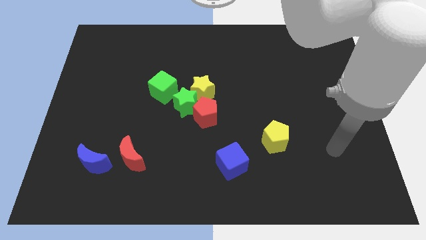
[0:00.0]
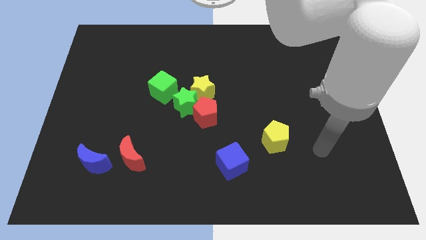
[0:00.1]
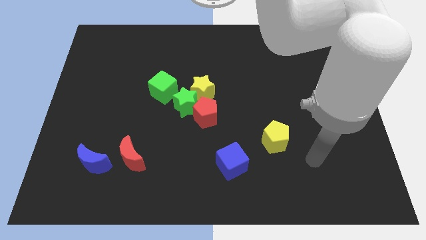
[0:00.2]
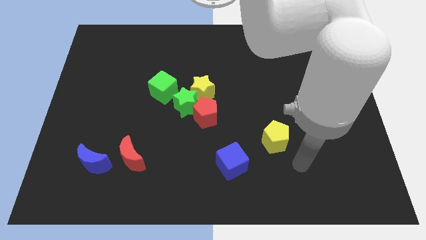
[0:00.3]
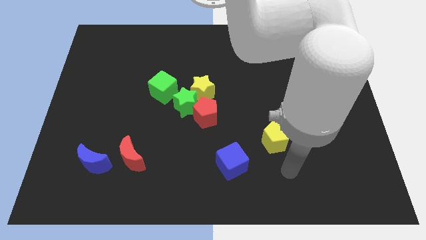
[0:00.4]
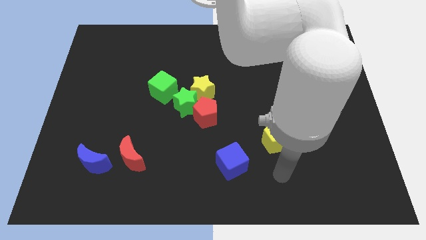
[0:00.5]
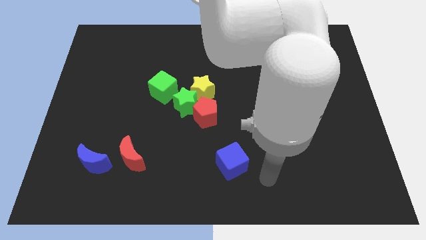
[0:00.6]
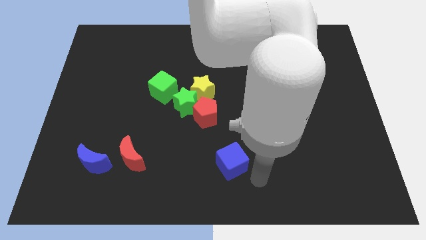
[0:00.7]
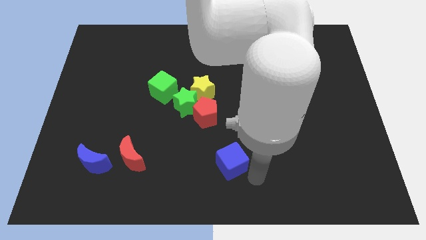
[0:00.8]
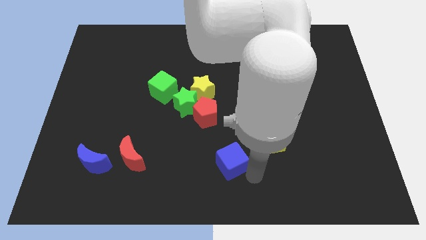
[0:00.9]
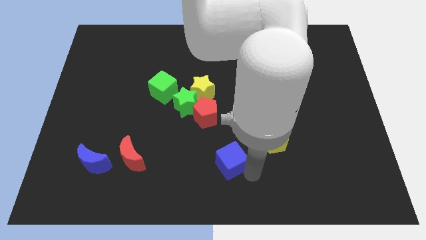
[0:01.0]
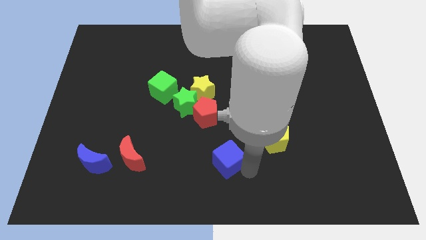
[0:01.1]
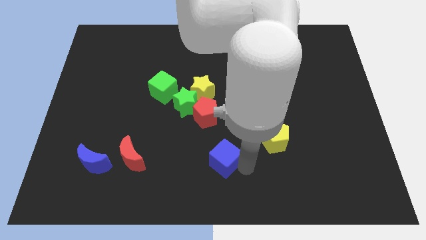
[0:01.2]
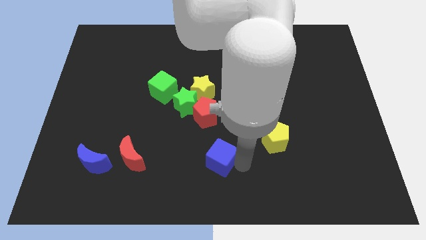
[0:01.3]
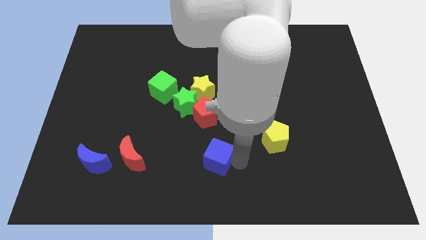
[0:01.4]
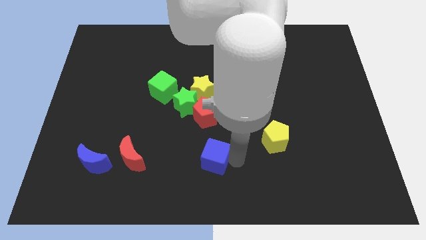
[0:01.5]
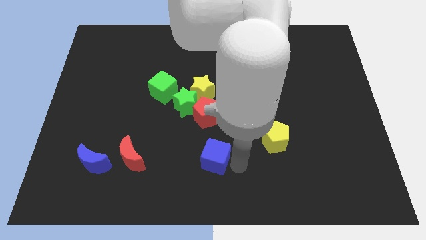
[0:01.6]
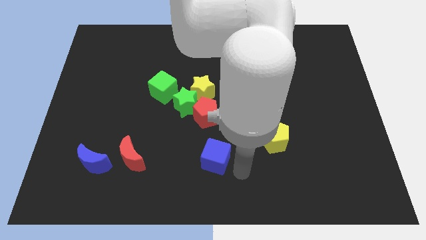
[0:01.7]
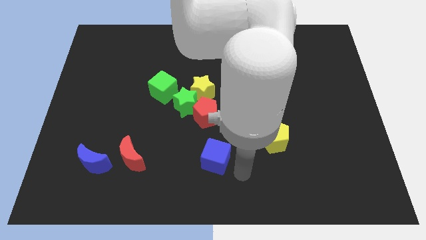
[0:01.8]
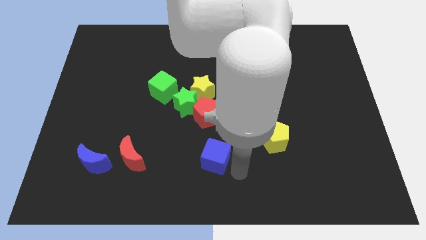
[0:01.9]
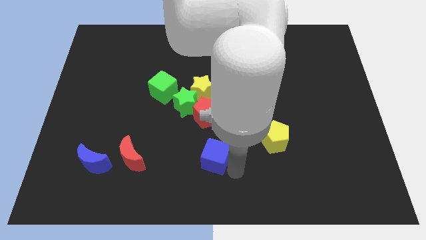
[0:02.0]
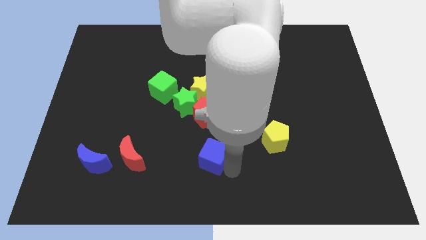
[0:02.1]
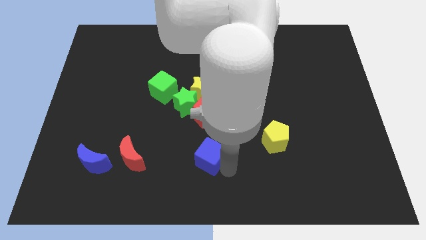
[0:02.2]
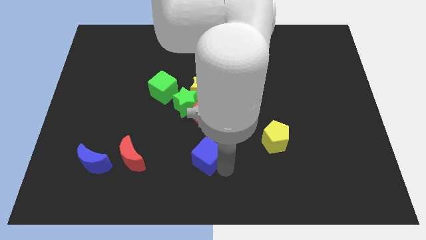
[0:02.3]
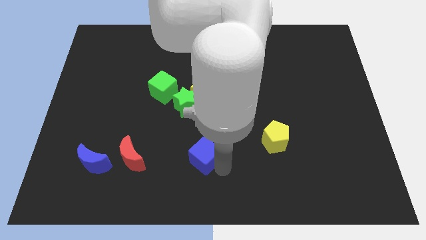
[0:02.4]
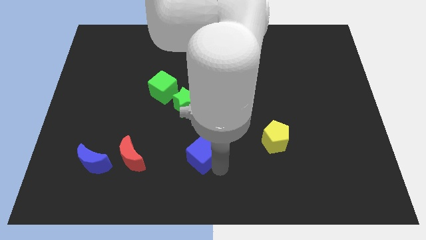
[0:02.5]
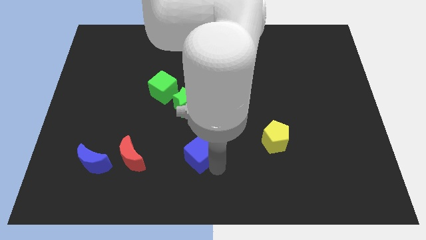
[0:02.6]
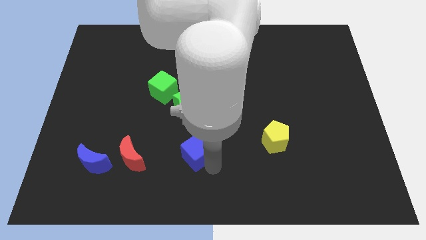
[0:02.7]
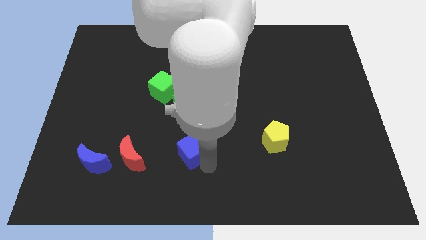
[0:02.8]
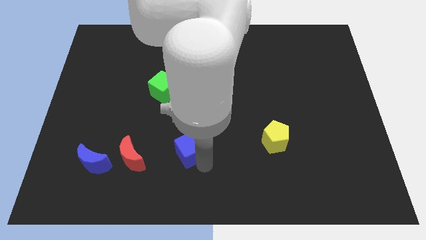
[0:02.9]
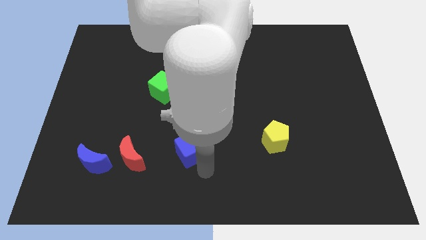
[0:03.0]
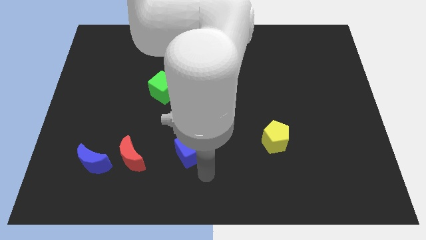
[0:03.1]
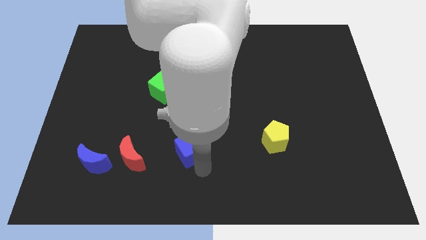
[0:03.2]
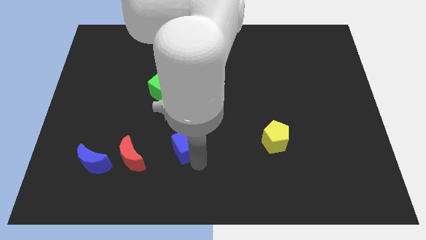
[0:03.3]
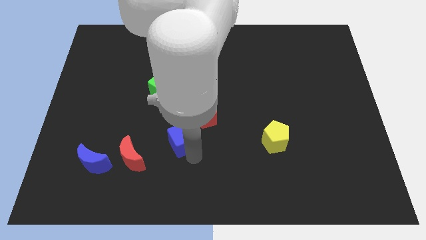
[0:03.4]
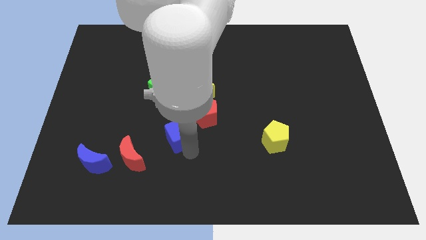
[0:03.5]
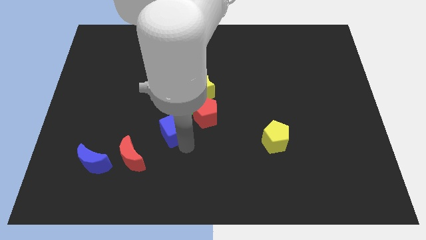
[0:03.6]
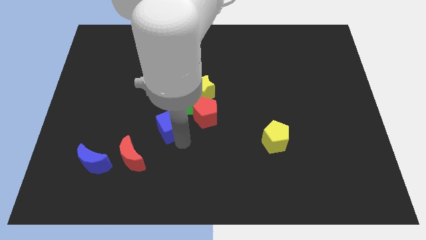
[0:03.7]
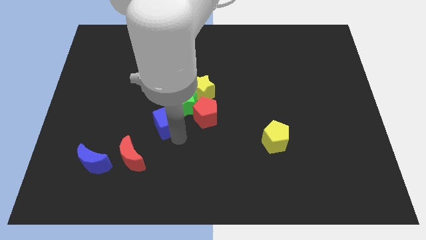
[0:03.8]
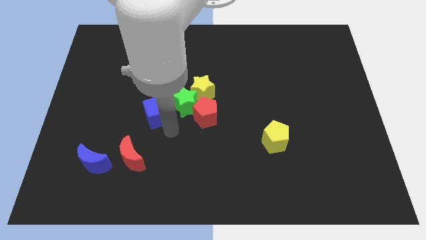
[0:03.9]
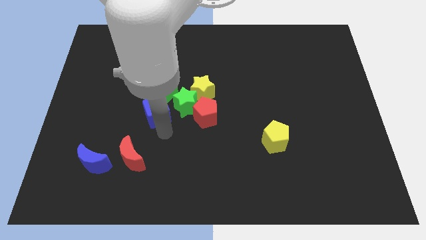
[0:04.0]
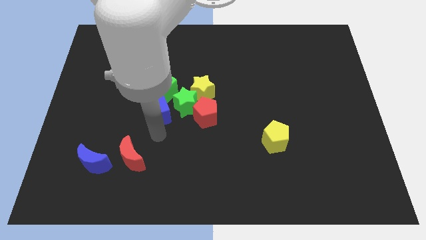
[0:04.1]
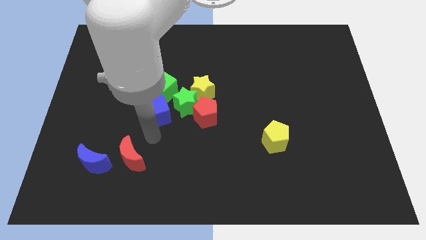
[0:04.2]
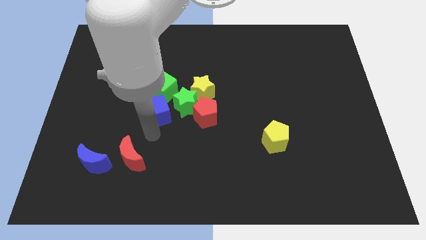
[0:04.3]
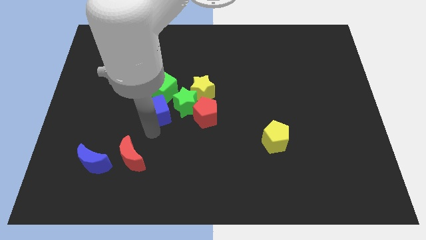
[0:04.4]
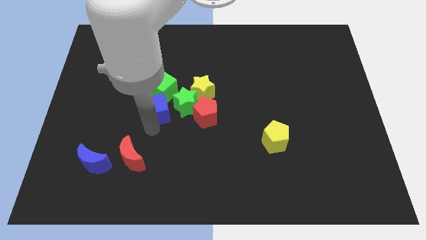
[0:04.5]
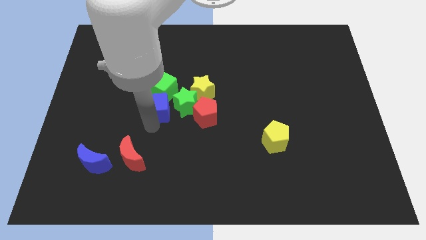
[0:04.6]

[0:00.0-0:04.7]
put the blue cube close to the green cube

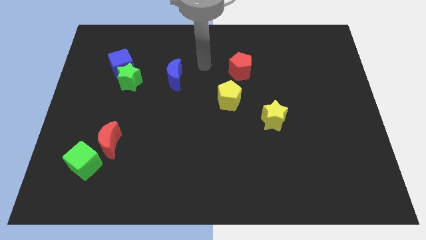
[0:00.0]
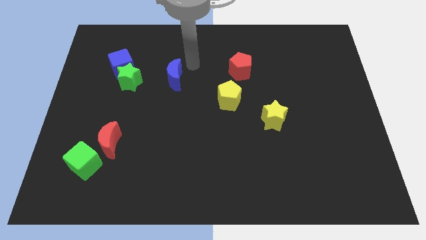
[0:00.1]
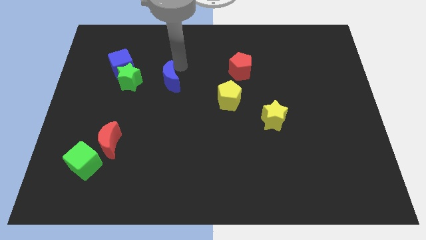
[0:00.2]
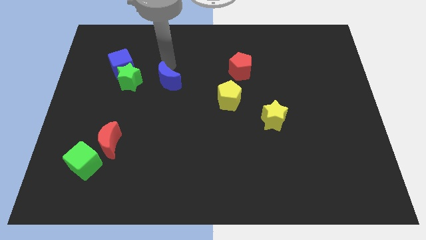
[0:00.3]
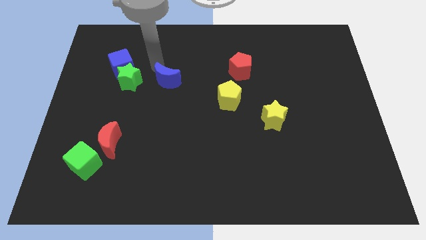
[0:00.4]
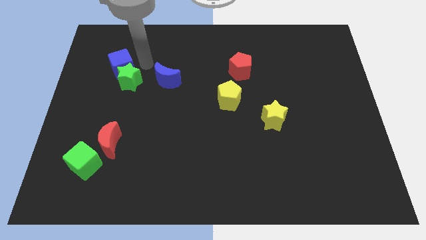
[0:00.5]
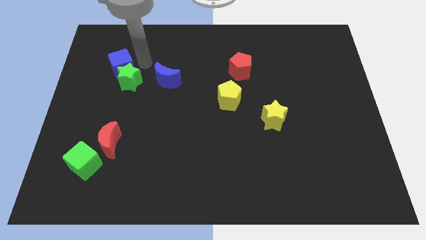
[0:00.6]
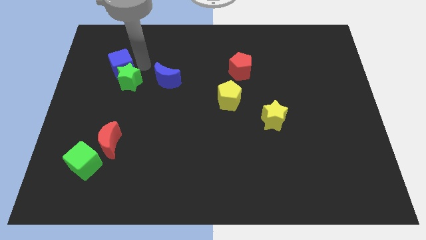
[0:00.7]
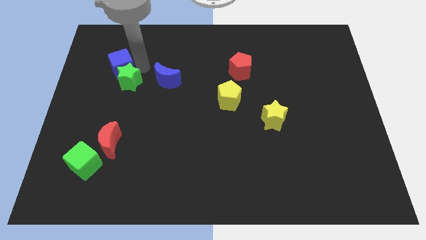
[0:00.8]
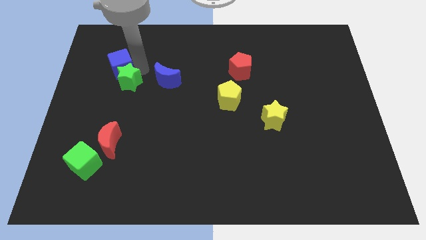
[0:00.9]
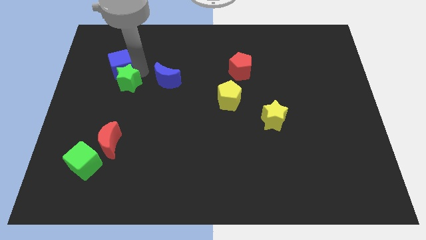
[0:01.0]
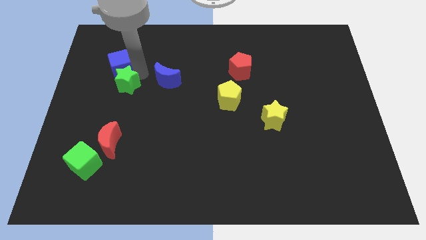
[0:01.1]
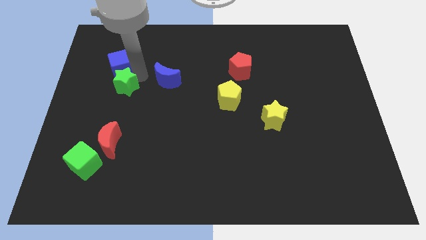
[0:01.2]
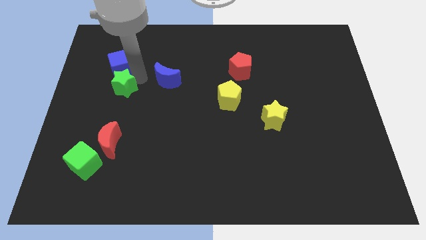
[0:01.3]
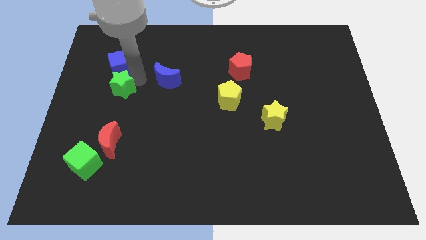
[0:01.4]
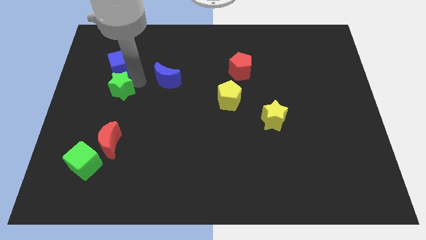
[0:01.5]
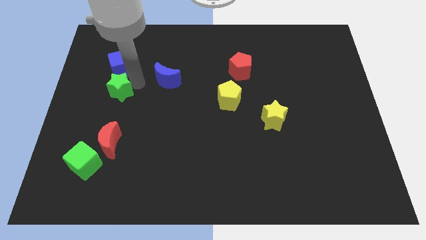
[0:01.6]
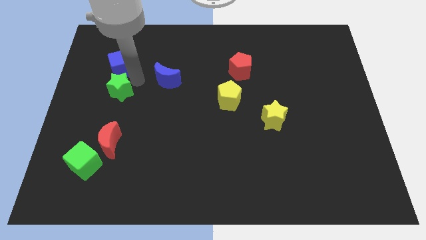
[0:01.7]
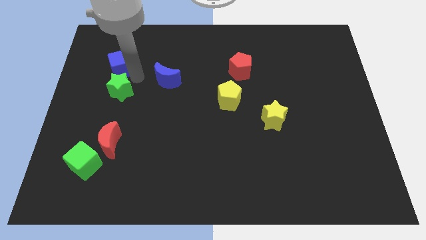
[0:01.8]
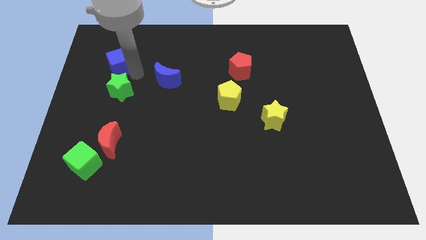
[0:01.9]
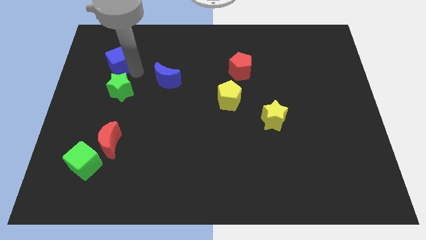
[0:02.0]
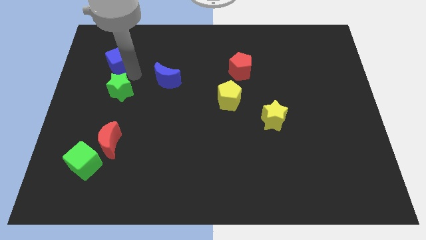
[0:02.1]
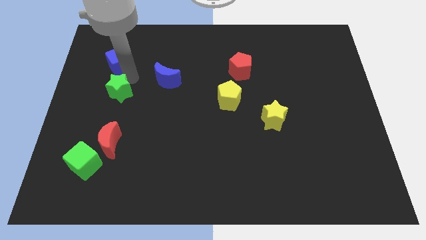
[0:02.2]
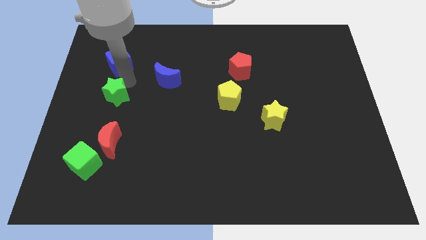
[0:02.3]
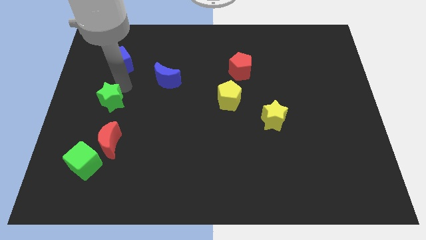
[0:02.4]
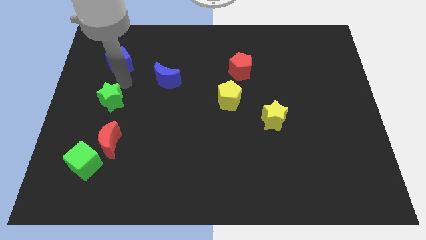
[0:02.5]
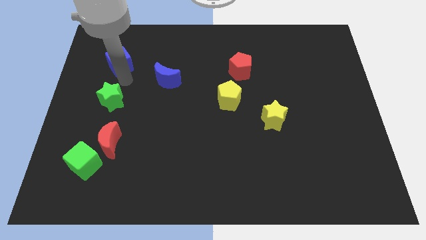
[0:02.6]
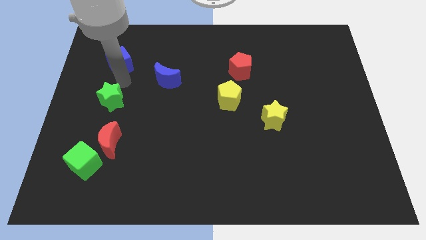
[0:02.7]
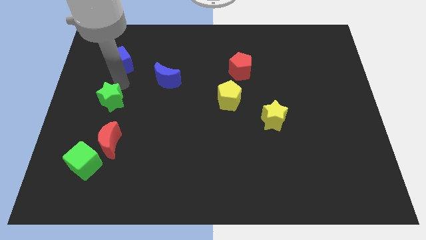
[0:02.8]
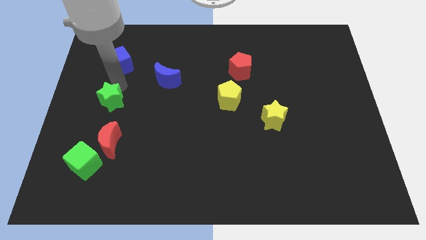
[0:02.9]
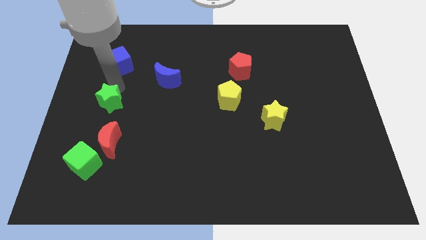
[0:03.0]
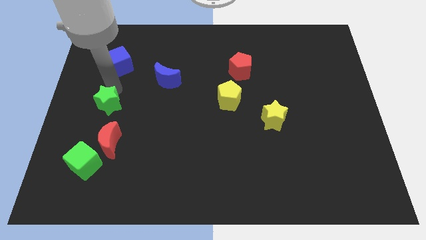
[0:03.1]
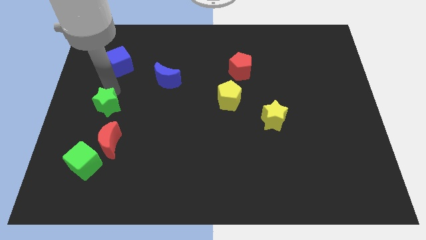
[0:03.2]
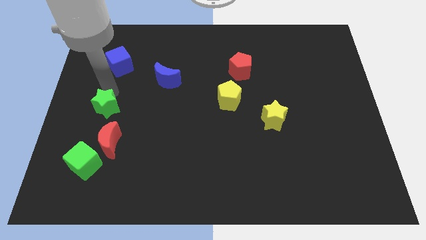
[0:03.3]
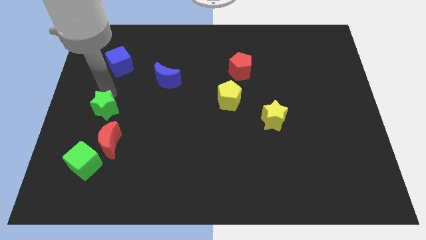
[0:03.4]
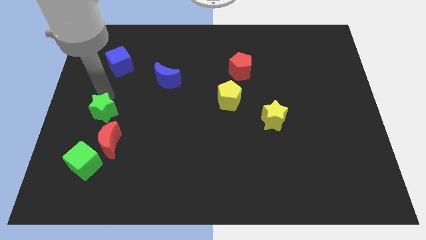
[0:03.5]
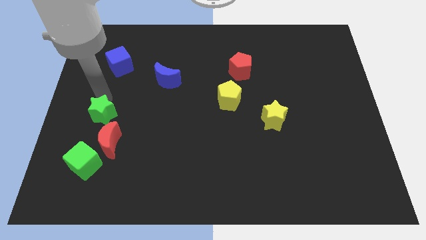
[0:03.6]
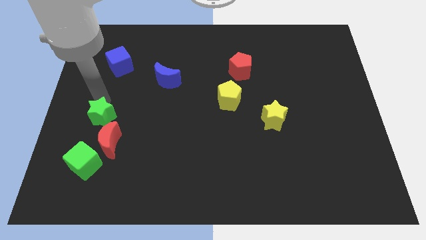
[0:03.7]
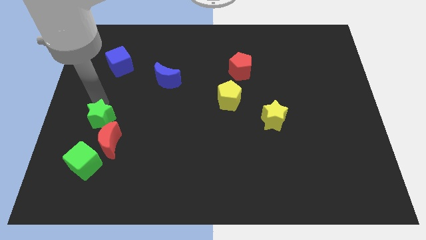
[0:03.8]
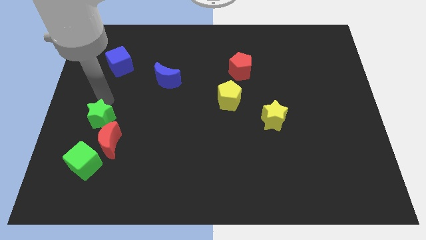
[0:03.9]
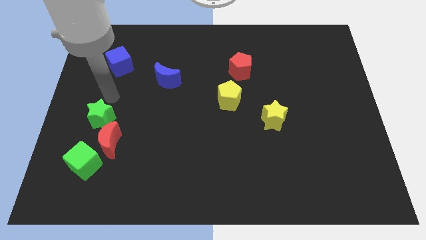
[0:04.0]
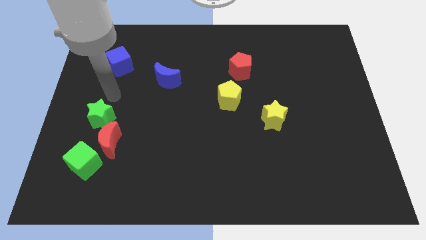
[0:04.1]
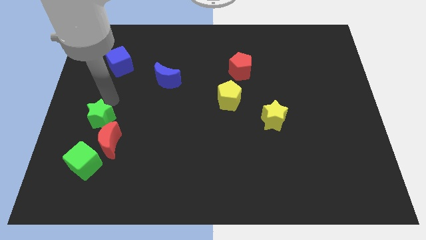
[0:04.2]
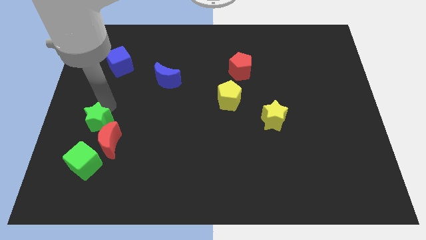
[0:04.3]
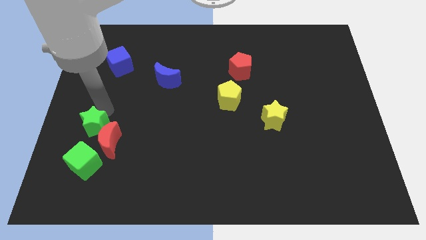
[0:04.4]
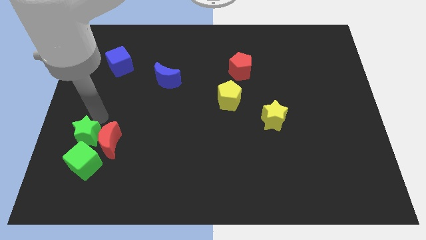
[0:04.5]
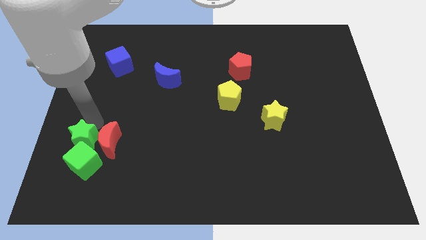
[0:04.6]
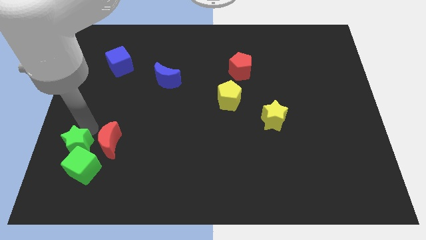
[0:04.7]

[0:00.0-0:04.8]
move the green star to the green cube
